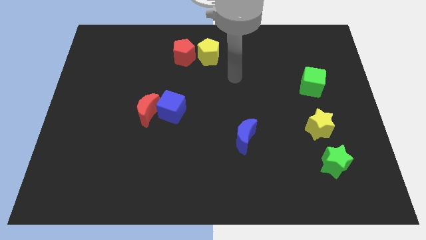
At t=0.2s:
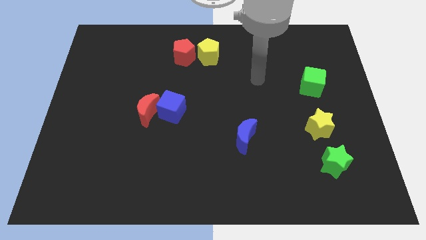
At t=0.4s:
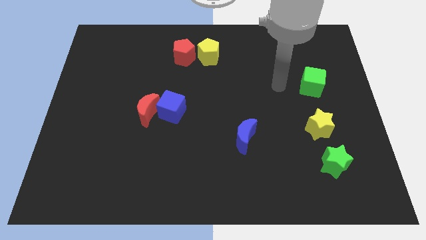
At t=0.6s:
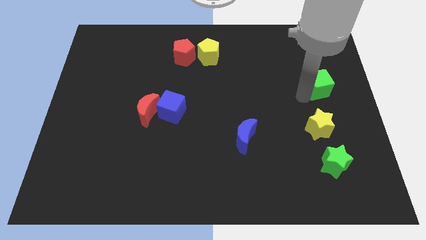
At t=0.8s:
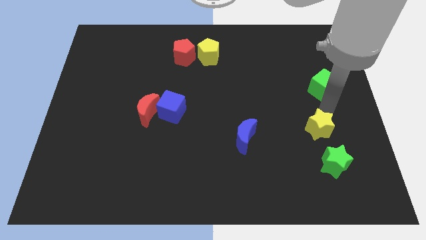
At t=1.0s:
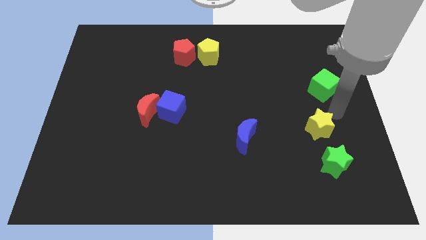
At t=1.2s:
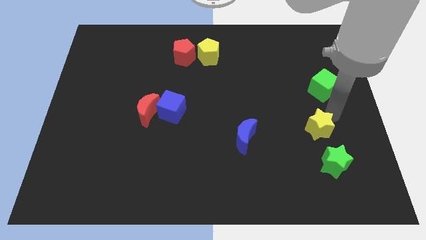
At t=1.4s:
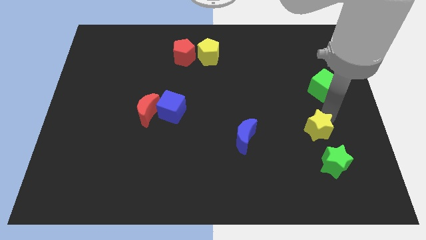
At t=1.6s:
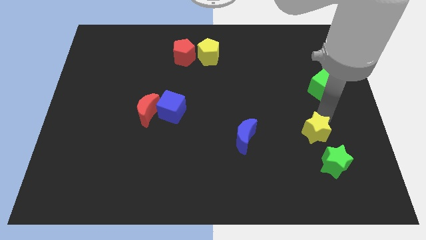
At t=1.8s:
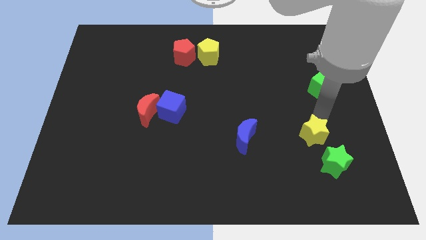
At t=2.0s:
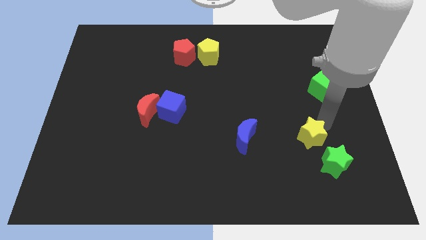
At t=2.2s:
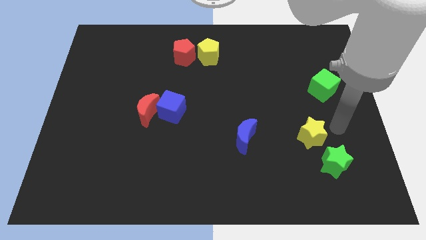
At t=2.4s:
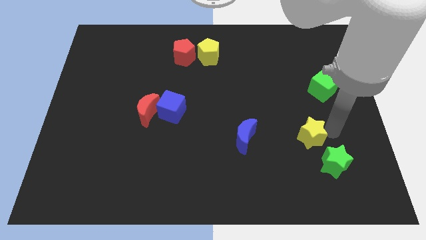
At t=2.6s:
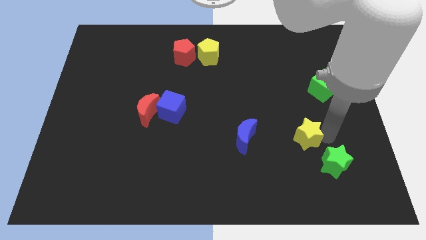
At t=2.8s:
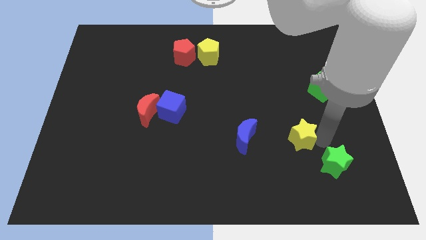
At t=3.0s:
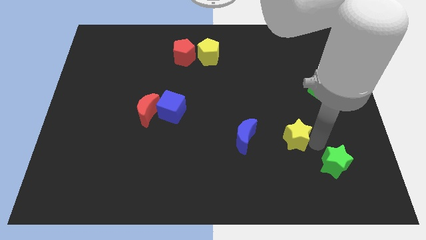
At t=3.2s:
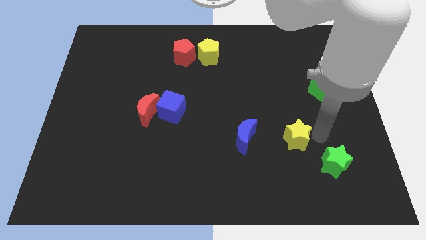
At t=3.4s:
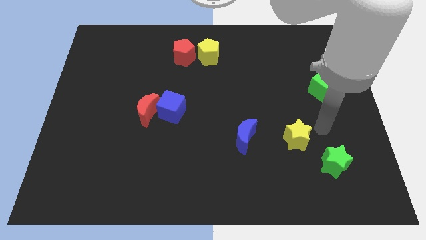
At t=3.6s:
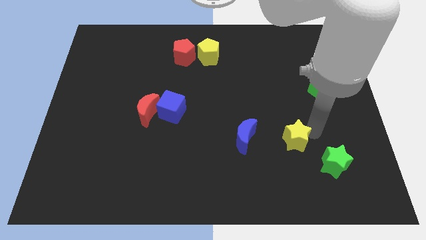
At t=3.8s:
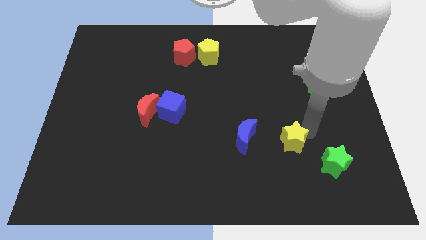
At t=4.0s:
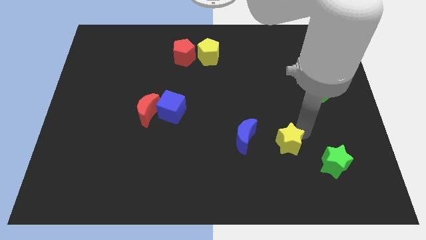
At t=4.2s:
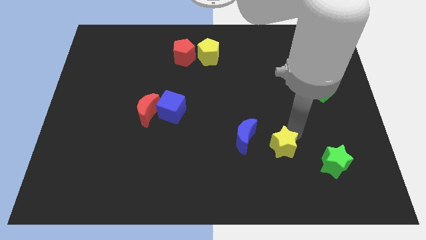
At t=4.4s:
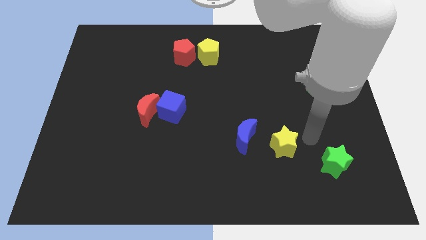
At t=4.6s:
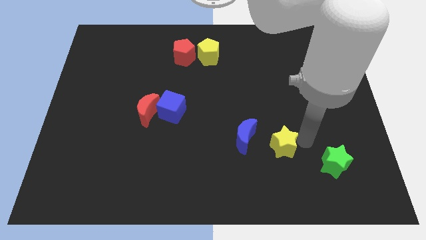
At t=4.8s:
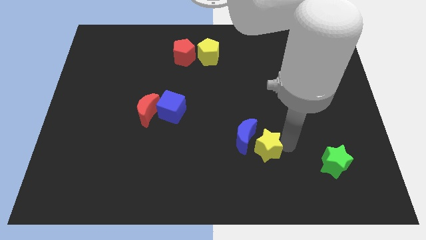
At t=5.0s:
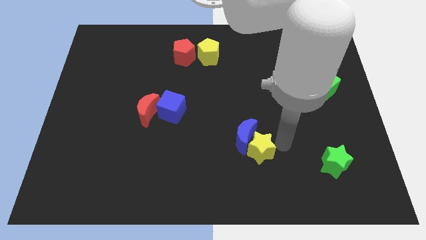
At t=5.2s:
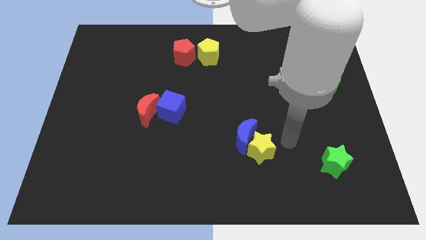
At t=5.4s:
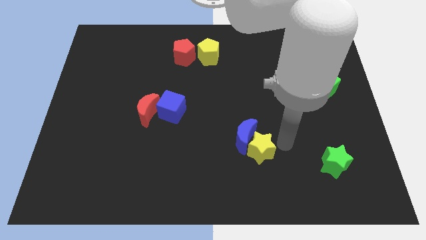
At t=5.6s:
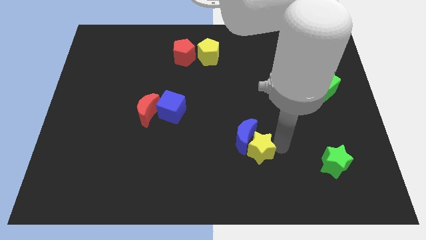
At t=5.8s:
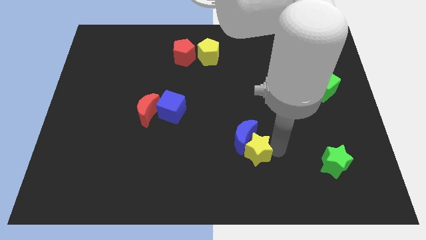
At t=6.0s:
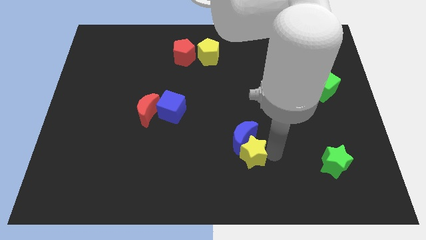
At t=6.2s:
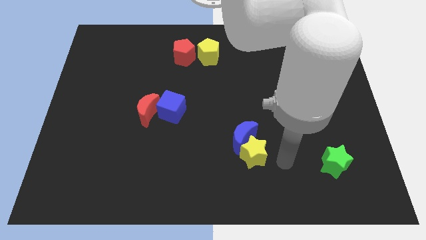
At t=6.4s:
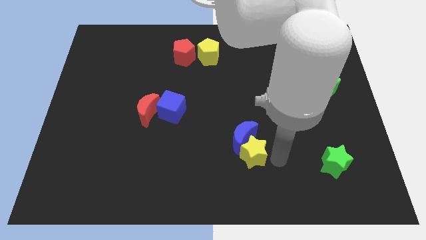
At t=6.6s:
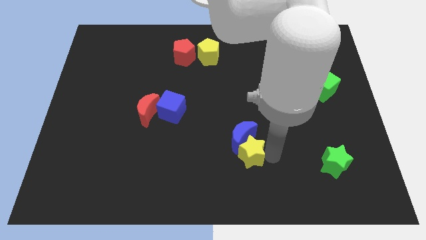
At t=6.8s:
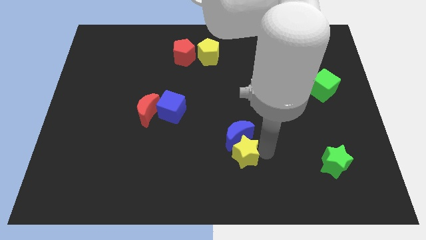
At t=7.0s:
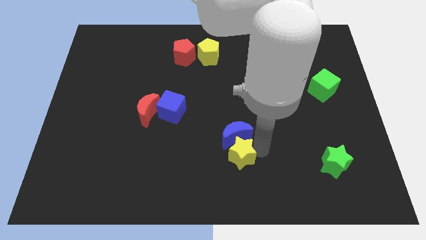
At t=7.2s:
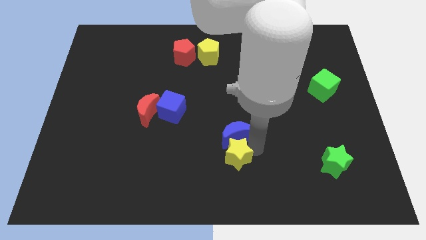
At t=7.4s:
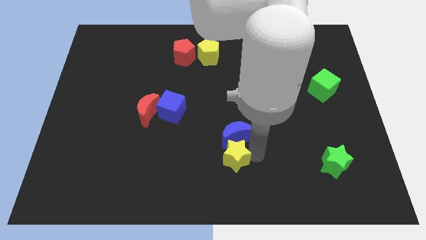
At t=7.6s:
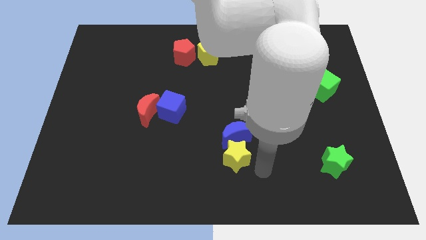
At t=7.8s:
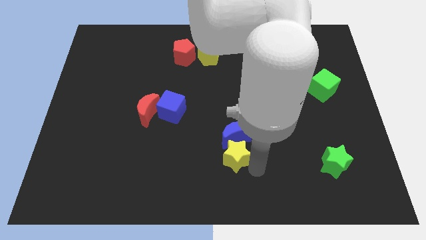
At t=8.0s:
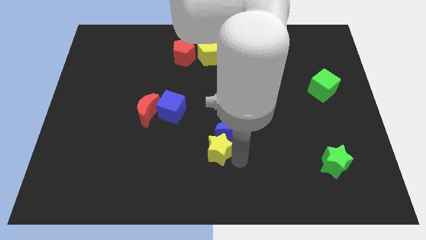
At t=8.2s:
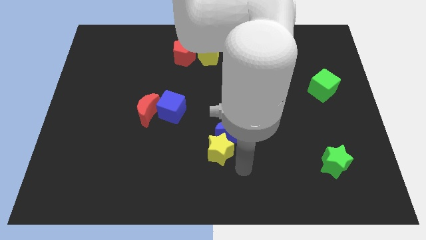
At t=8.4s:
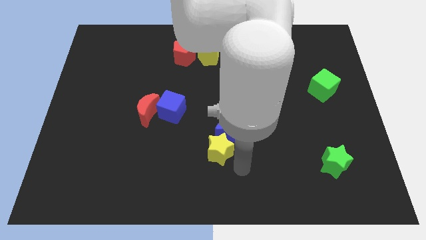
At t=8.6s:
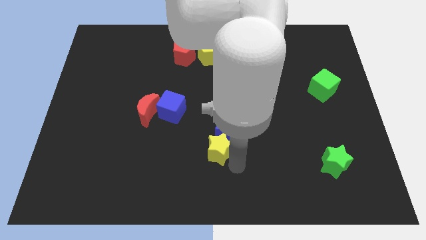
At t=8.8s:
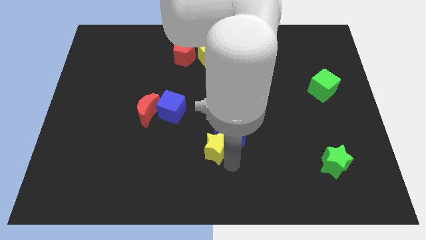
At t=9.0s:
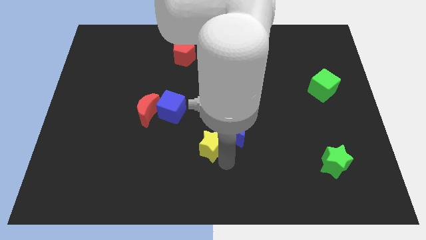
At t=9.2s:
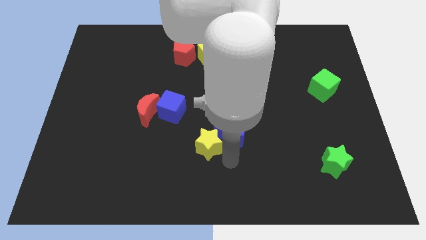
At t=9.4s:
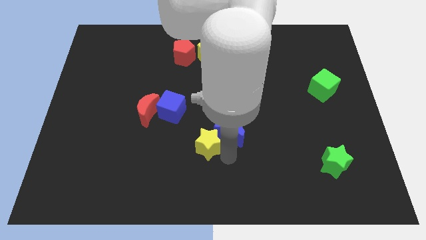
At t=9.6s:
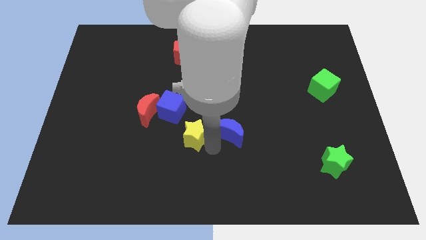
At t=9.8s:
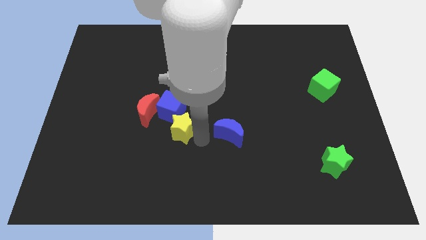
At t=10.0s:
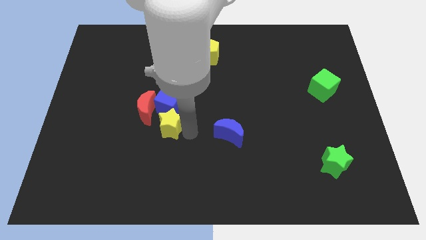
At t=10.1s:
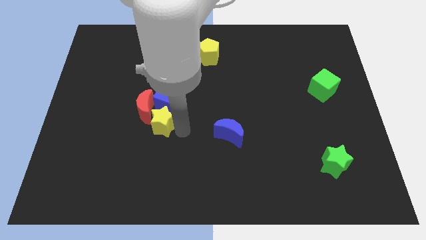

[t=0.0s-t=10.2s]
slide the yellow star close to the red moon

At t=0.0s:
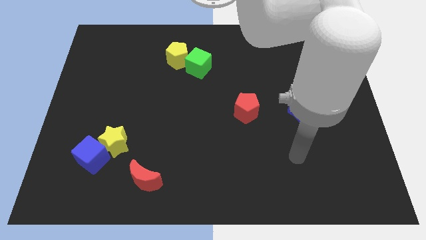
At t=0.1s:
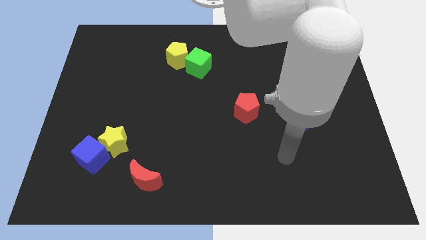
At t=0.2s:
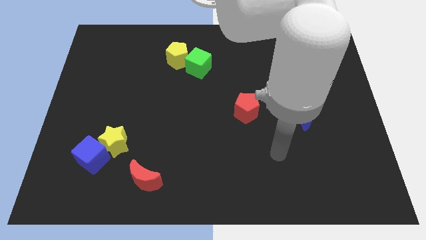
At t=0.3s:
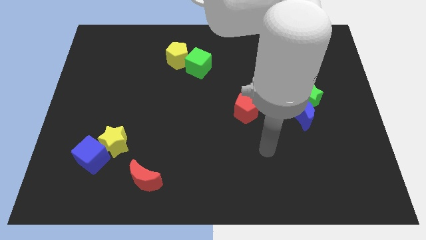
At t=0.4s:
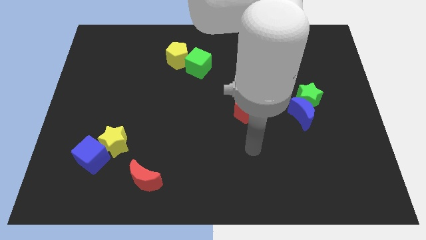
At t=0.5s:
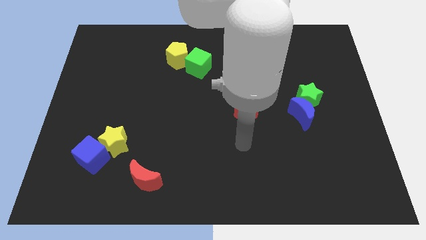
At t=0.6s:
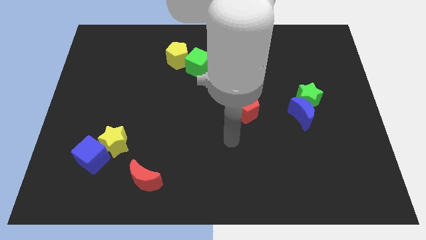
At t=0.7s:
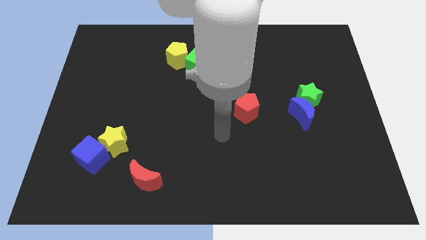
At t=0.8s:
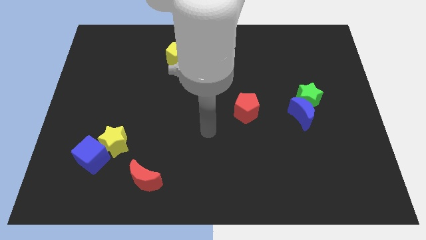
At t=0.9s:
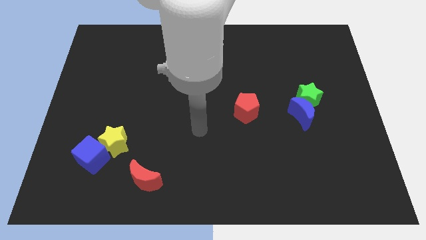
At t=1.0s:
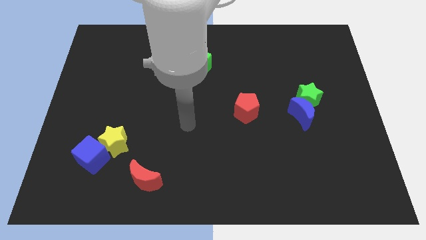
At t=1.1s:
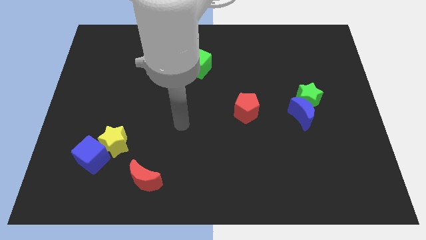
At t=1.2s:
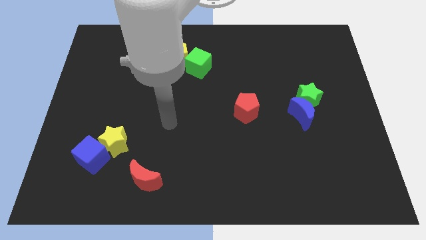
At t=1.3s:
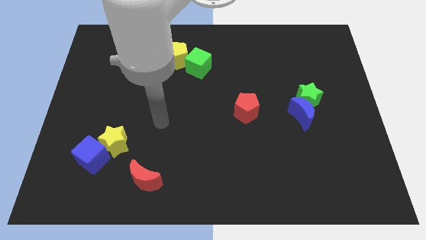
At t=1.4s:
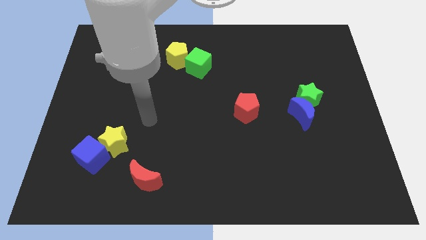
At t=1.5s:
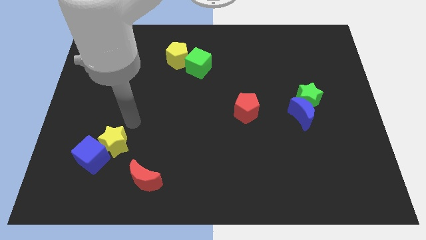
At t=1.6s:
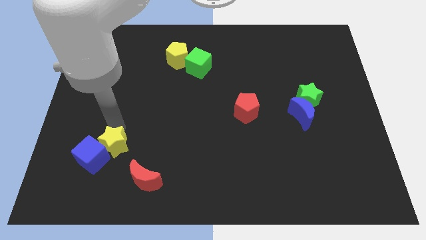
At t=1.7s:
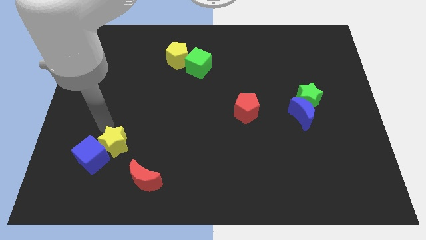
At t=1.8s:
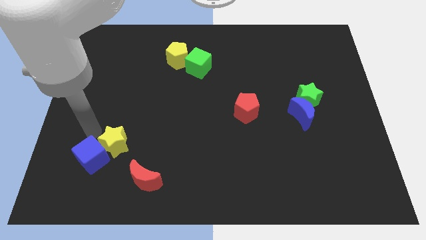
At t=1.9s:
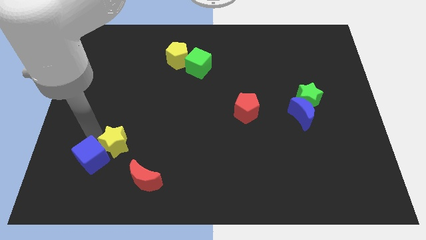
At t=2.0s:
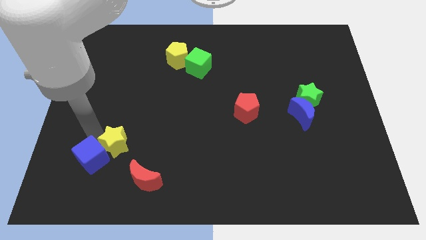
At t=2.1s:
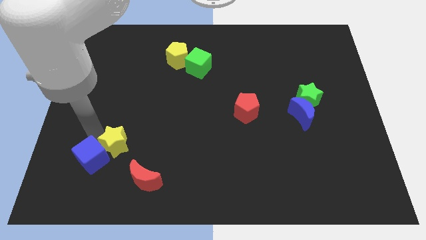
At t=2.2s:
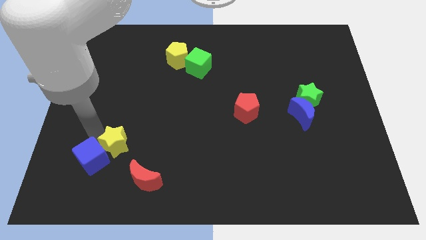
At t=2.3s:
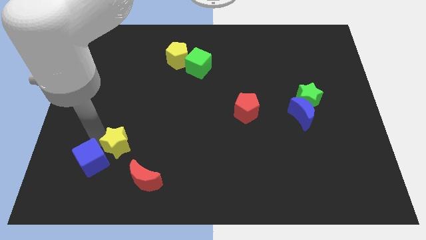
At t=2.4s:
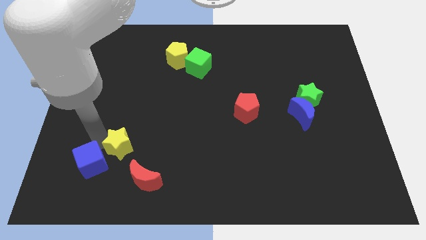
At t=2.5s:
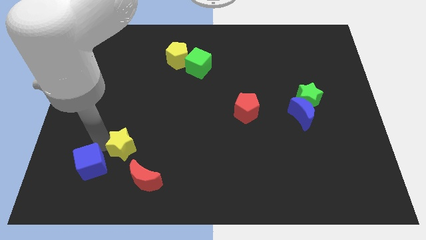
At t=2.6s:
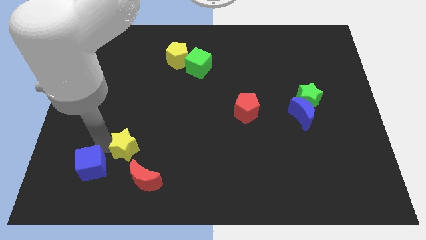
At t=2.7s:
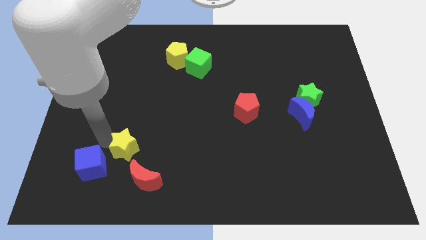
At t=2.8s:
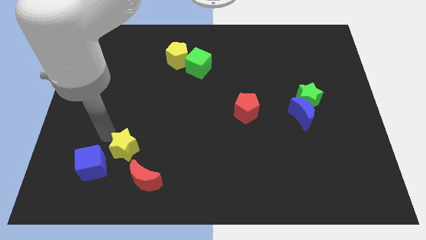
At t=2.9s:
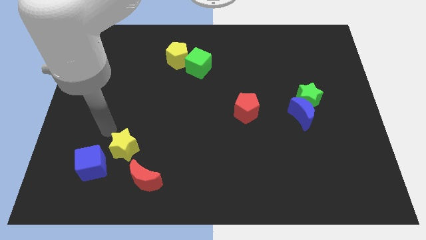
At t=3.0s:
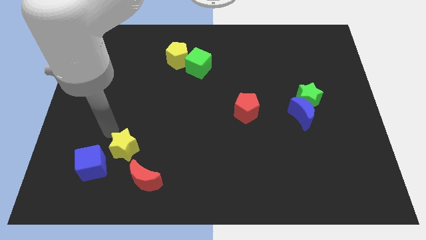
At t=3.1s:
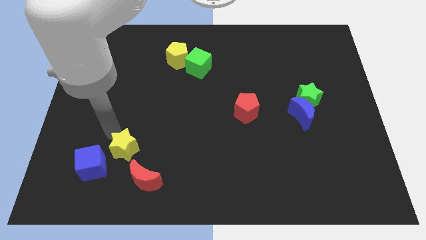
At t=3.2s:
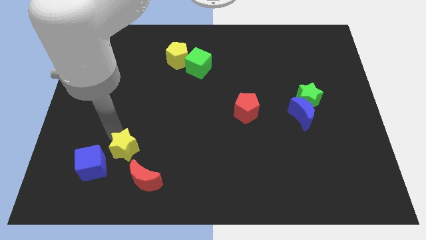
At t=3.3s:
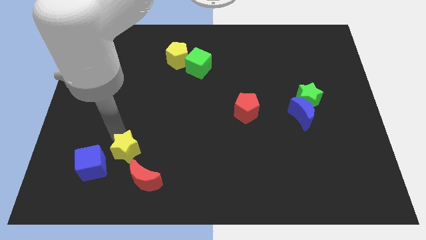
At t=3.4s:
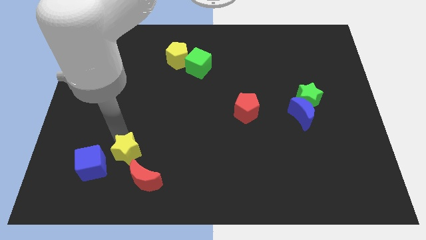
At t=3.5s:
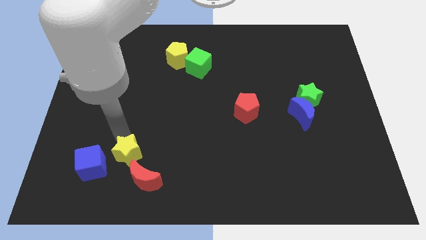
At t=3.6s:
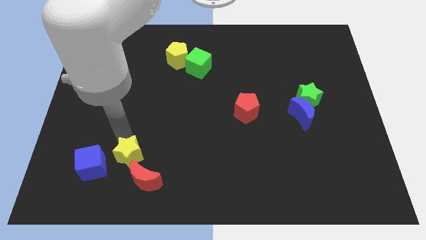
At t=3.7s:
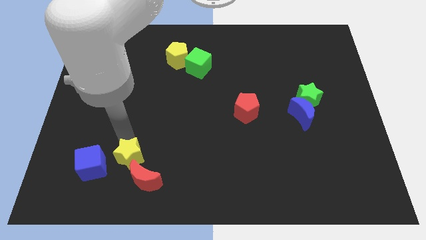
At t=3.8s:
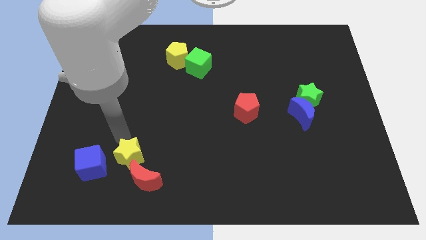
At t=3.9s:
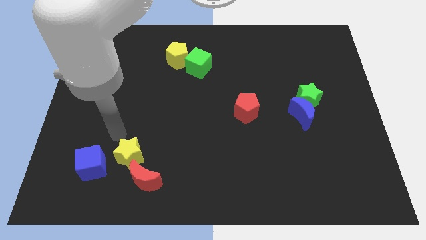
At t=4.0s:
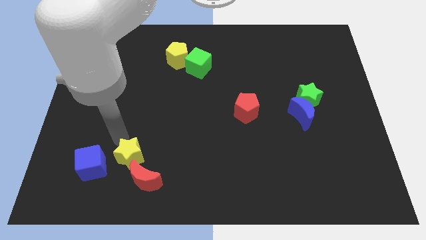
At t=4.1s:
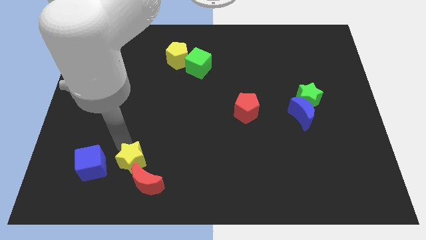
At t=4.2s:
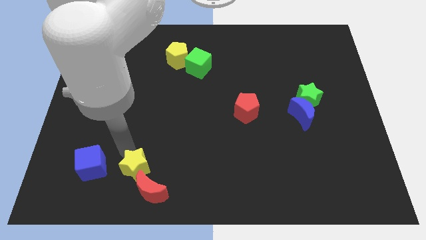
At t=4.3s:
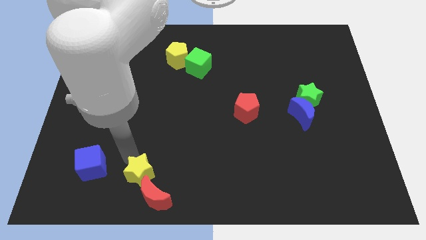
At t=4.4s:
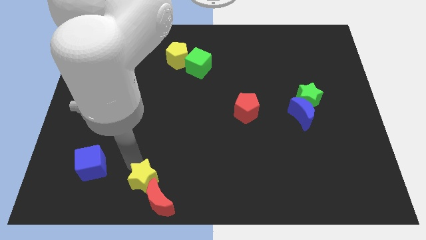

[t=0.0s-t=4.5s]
move the yellow star to the red moon
